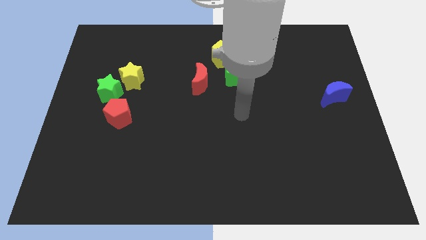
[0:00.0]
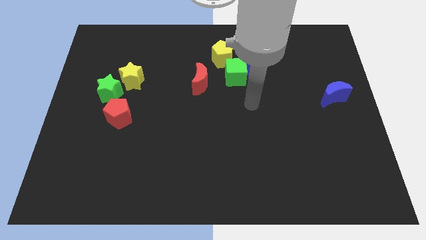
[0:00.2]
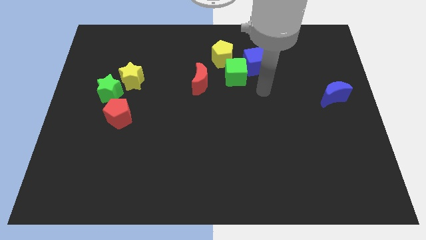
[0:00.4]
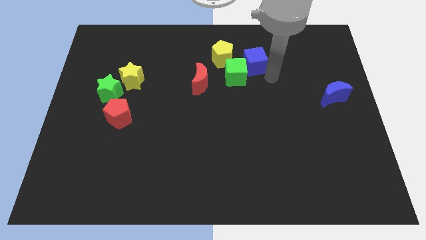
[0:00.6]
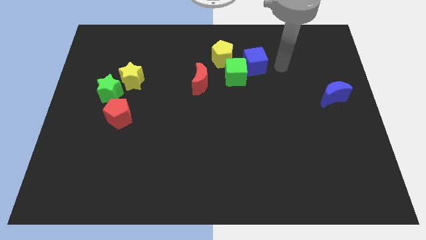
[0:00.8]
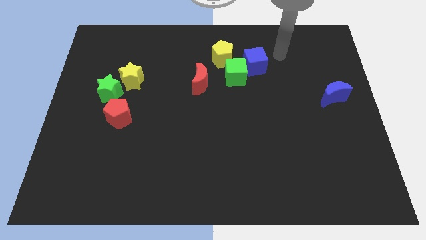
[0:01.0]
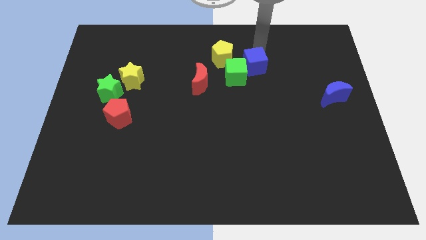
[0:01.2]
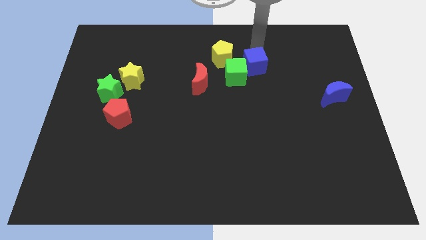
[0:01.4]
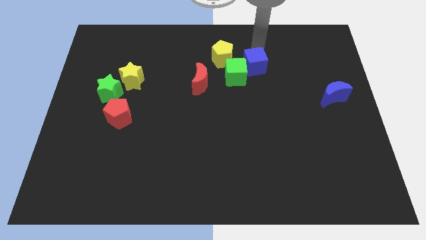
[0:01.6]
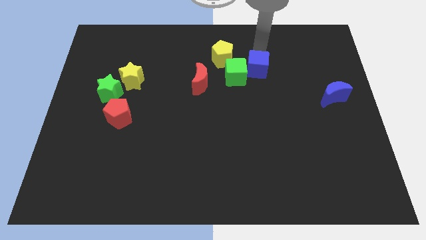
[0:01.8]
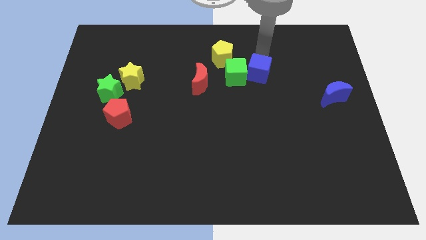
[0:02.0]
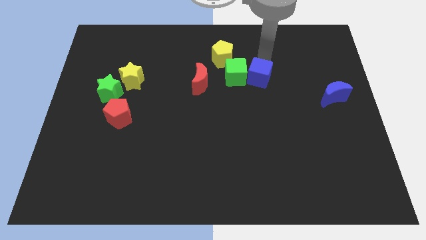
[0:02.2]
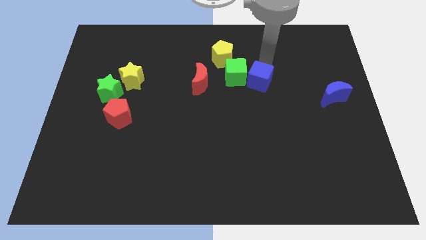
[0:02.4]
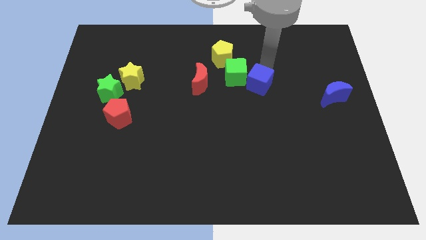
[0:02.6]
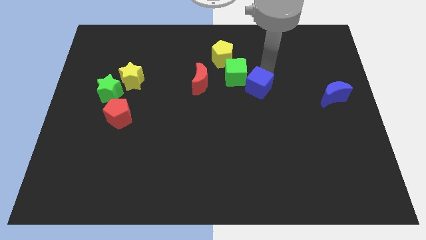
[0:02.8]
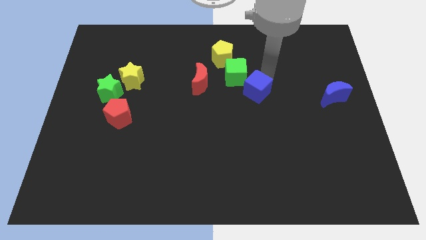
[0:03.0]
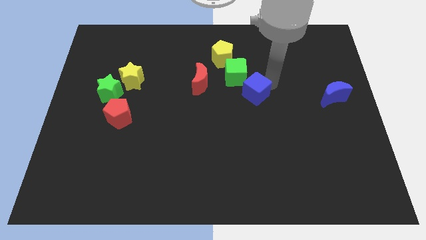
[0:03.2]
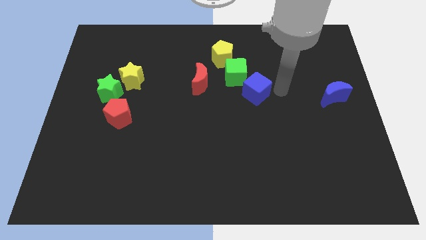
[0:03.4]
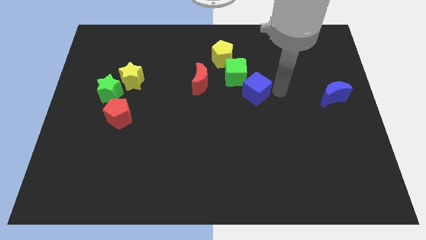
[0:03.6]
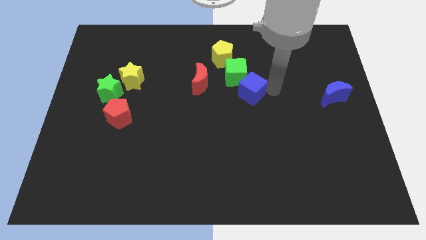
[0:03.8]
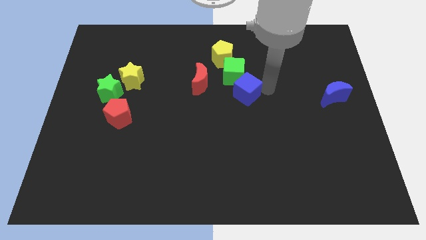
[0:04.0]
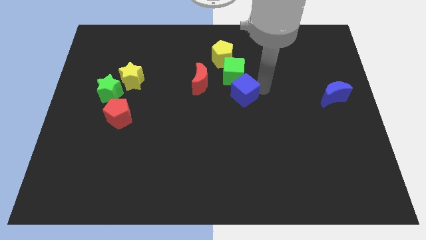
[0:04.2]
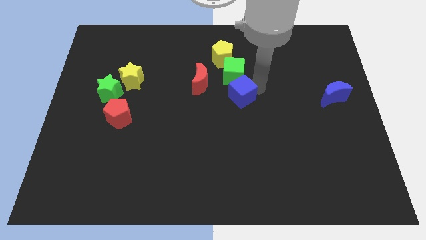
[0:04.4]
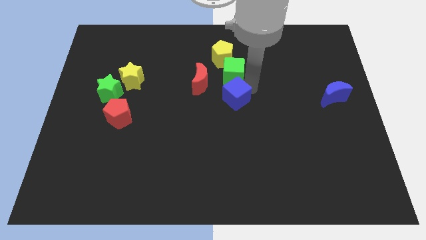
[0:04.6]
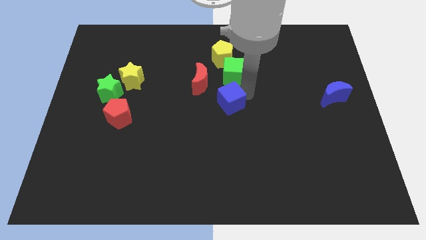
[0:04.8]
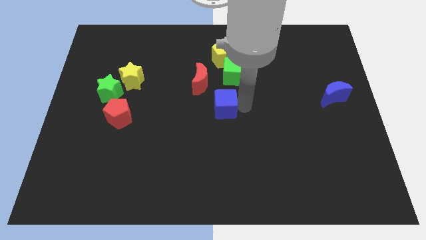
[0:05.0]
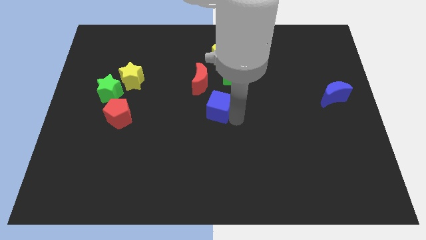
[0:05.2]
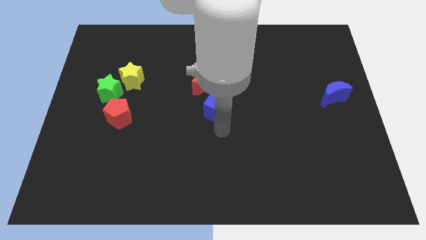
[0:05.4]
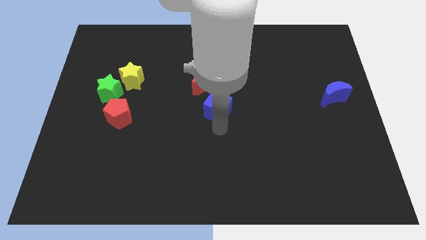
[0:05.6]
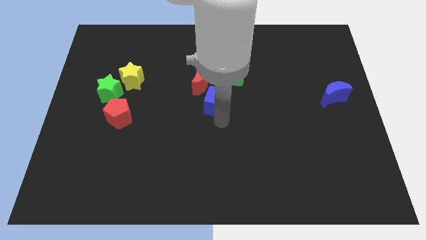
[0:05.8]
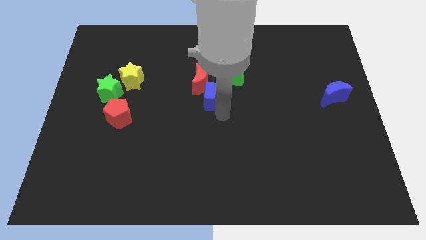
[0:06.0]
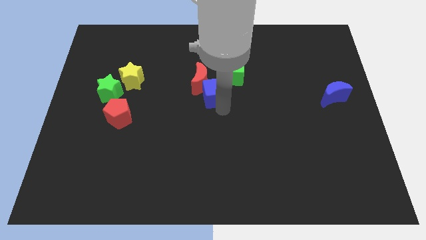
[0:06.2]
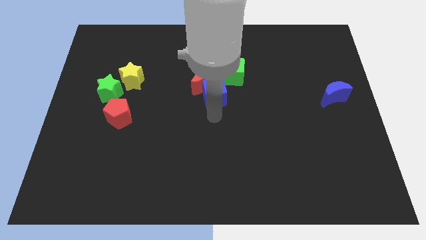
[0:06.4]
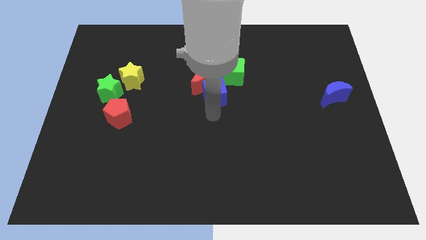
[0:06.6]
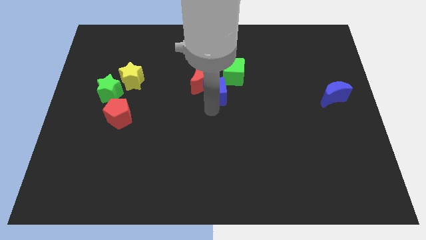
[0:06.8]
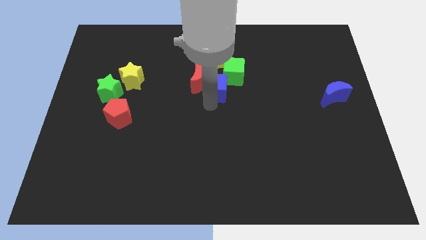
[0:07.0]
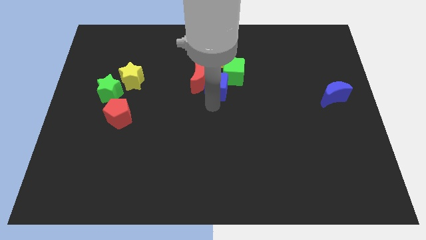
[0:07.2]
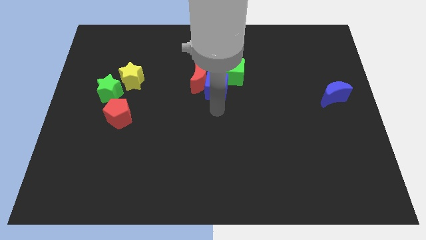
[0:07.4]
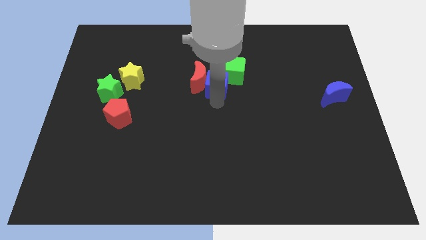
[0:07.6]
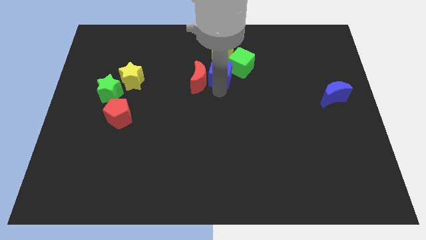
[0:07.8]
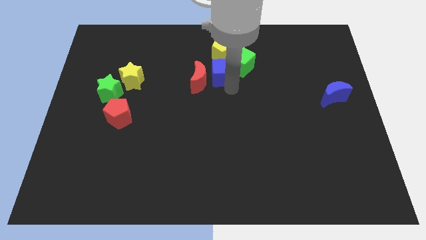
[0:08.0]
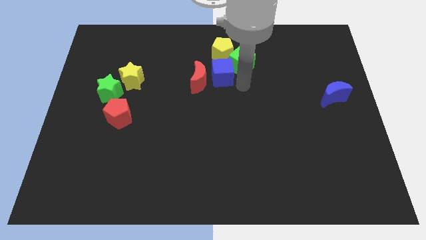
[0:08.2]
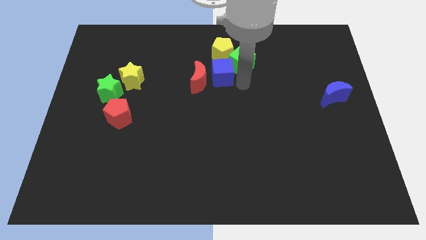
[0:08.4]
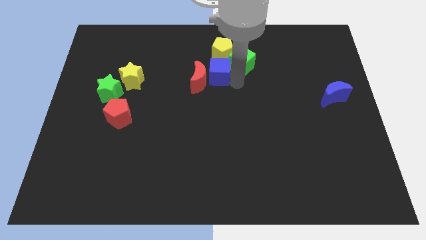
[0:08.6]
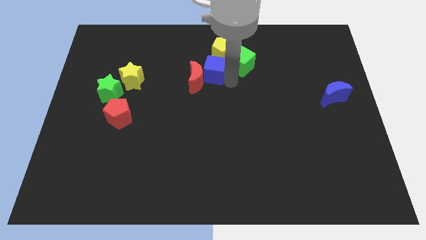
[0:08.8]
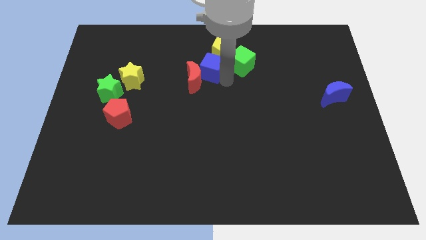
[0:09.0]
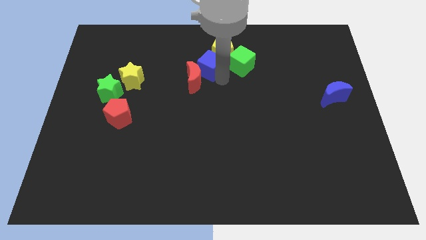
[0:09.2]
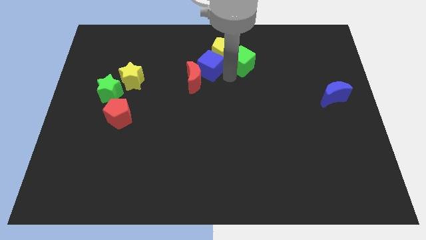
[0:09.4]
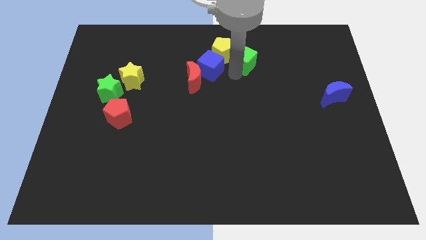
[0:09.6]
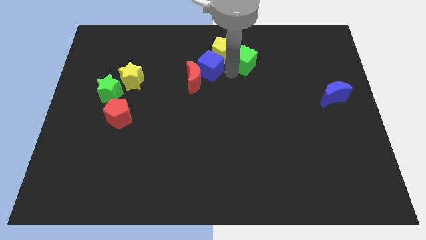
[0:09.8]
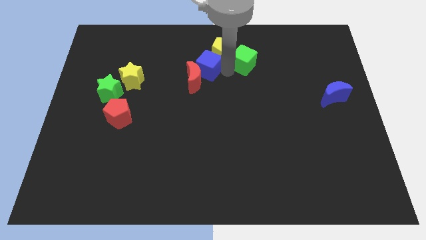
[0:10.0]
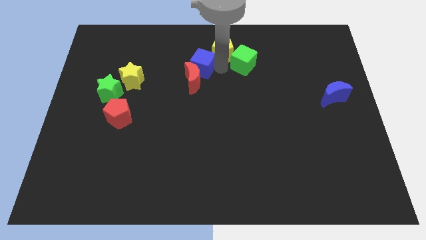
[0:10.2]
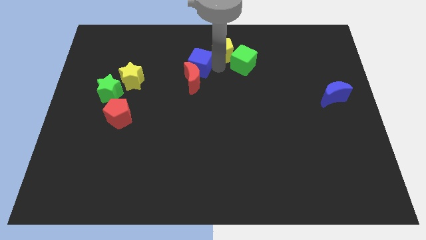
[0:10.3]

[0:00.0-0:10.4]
push the blue cube to the top left of the red moon

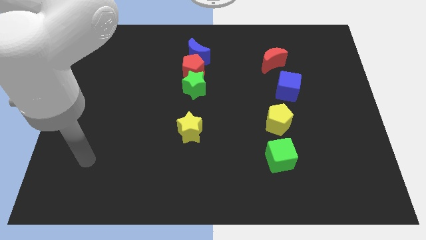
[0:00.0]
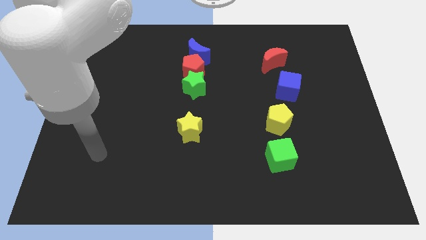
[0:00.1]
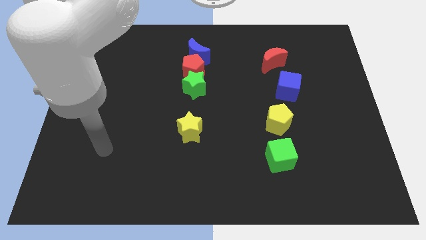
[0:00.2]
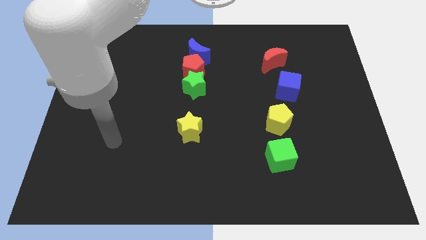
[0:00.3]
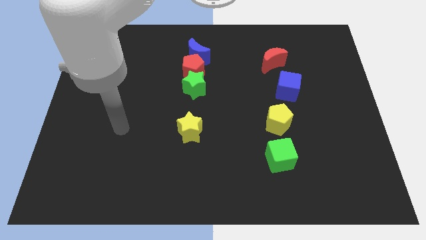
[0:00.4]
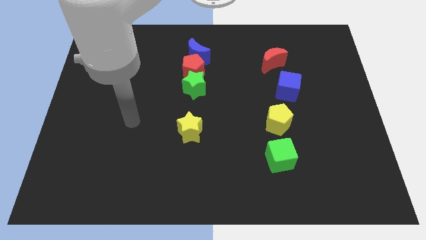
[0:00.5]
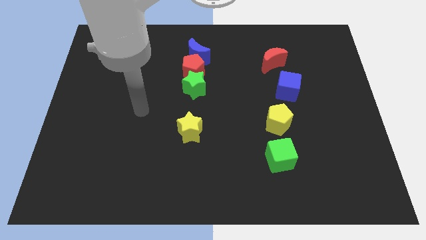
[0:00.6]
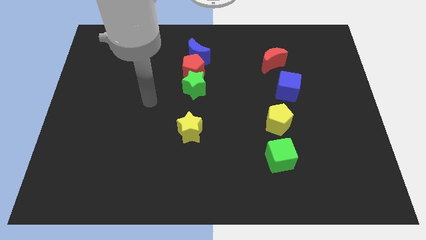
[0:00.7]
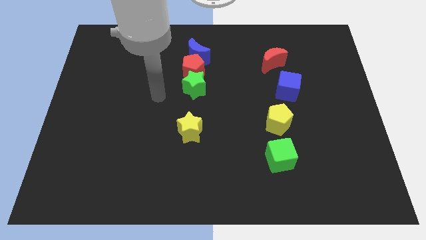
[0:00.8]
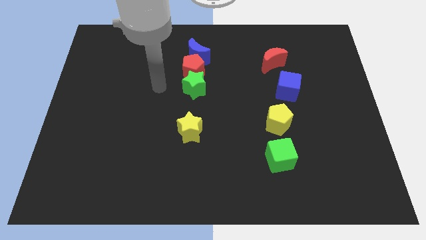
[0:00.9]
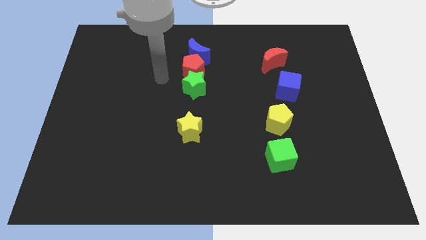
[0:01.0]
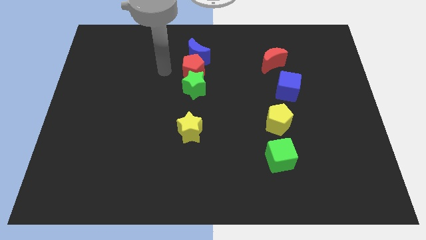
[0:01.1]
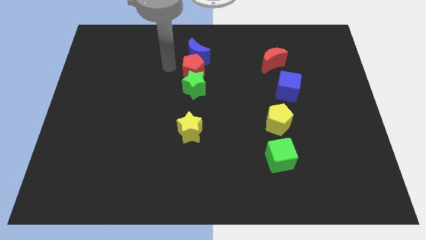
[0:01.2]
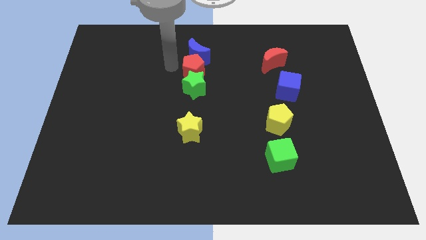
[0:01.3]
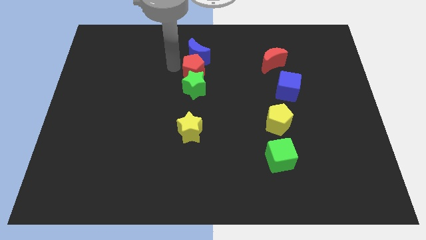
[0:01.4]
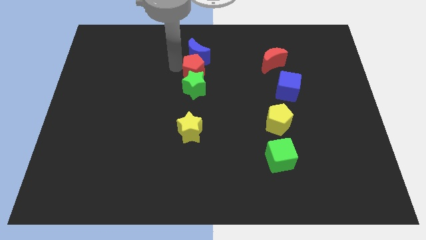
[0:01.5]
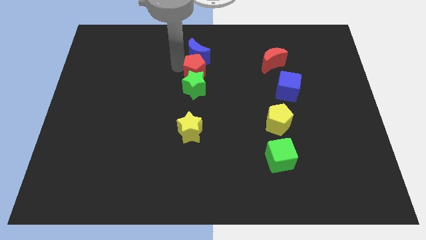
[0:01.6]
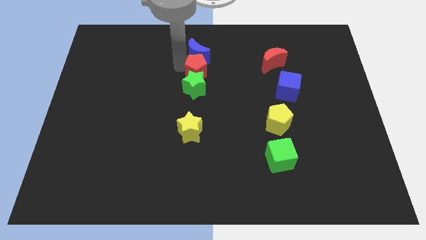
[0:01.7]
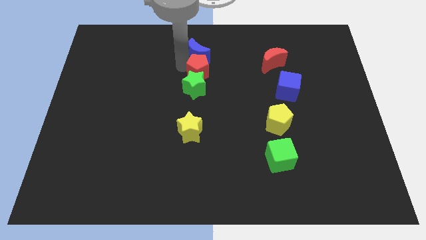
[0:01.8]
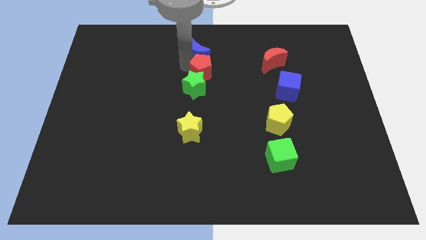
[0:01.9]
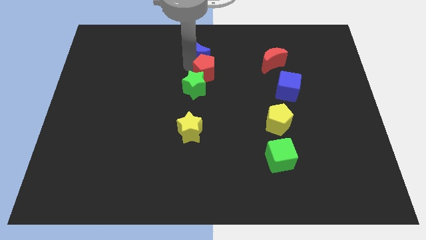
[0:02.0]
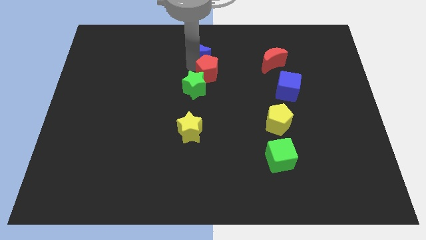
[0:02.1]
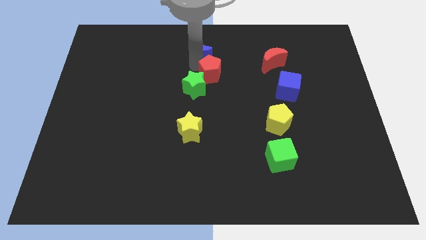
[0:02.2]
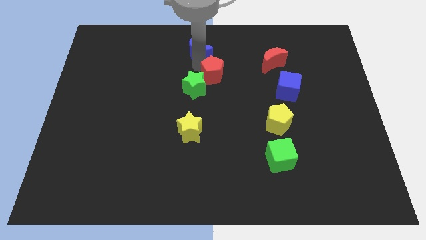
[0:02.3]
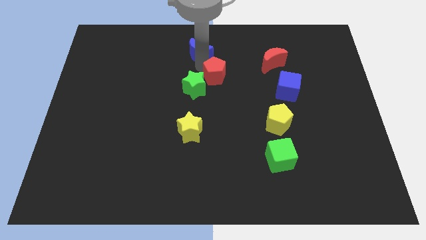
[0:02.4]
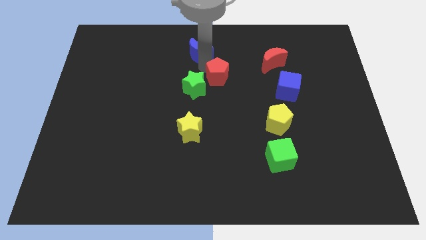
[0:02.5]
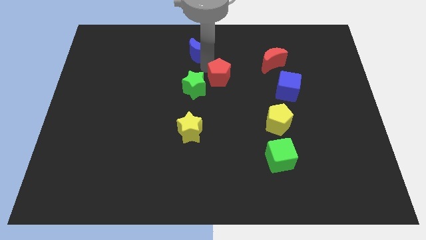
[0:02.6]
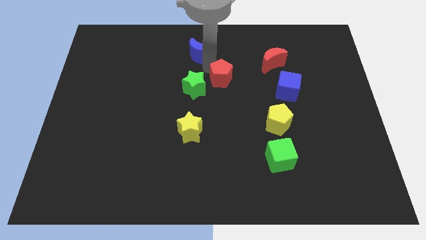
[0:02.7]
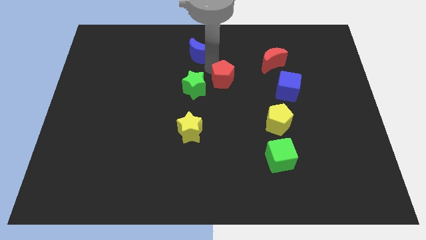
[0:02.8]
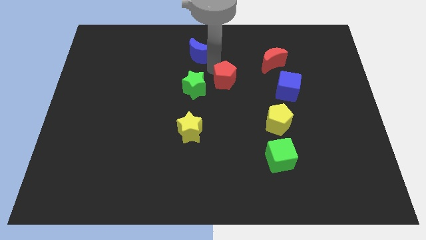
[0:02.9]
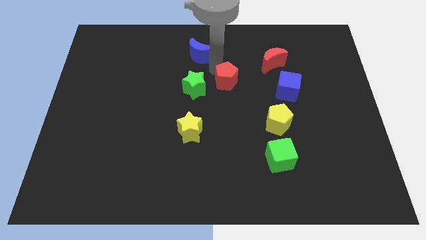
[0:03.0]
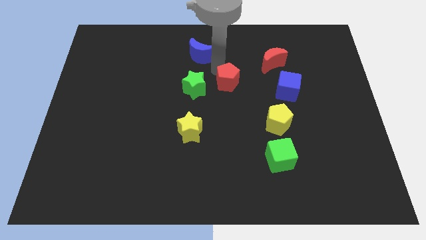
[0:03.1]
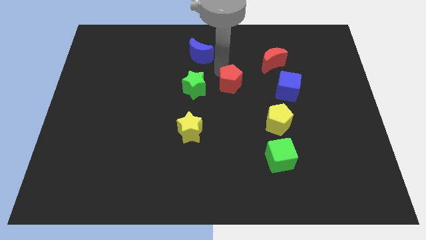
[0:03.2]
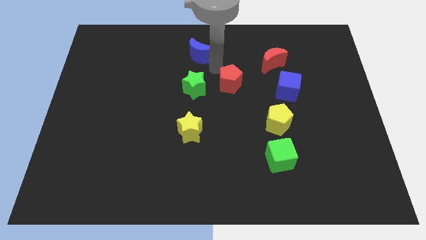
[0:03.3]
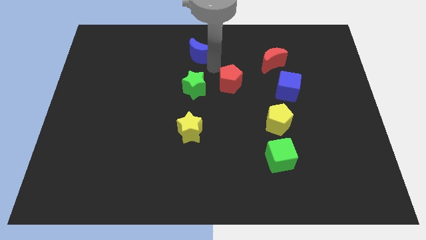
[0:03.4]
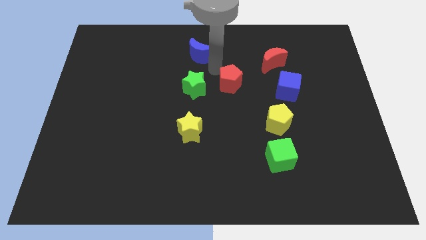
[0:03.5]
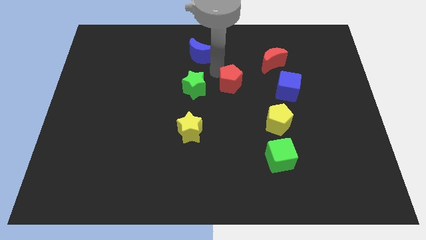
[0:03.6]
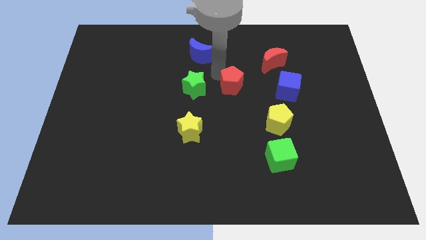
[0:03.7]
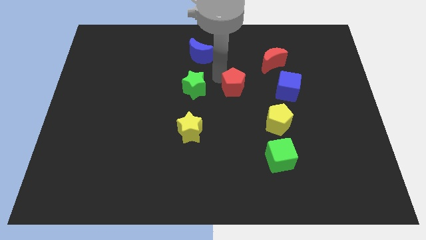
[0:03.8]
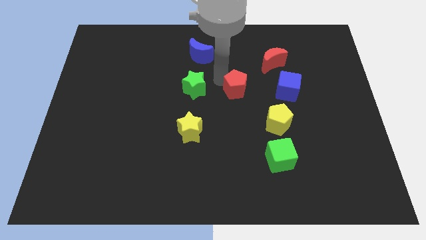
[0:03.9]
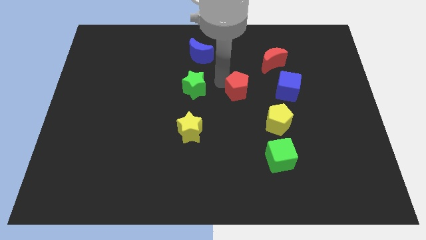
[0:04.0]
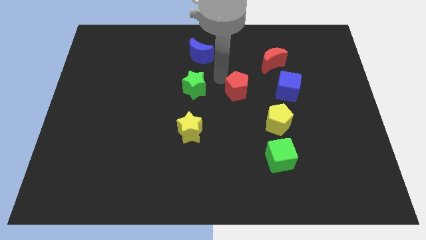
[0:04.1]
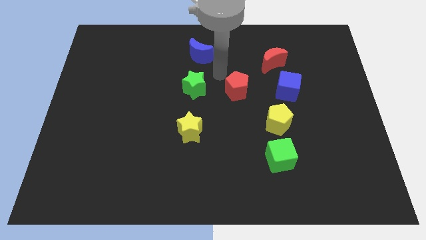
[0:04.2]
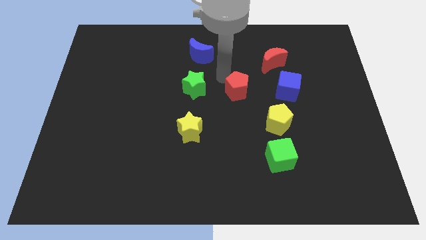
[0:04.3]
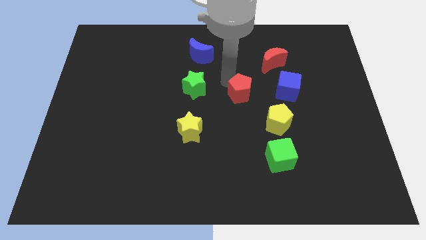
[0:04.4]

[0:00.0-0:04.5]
slide the red pentagon to the top left of the yellow pentagon
